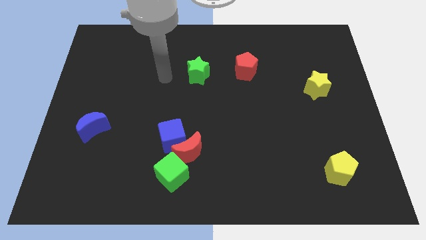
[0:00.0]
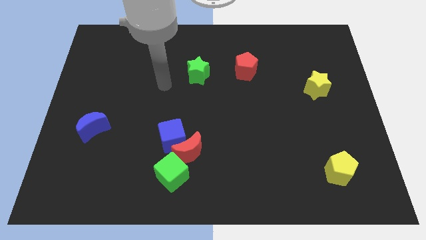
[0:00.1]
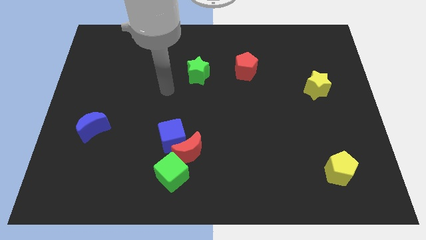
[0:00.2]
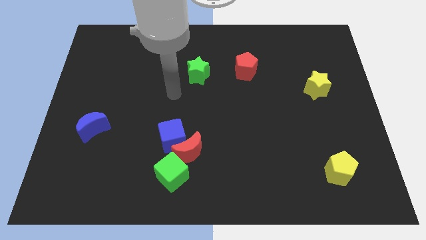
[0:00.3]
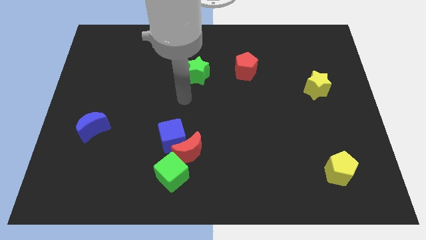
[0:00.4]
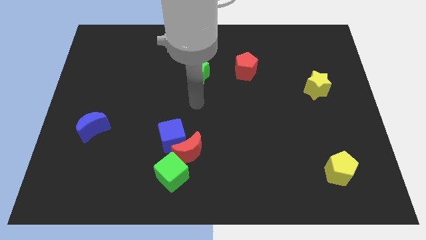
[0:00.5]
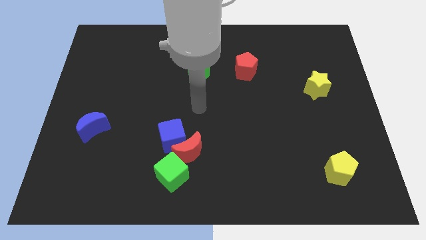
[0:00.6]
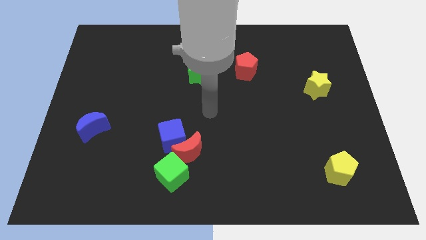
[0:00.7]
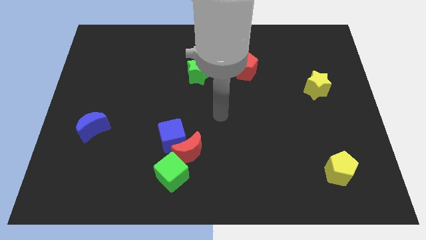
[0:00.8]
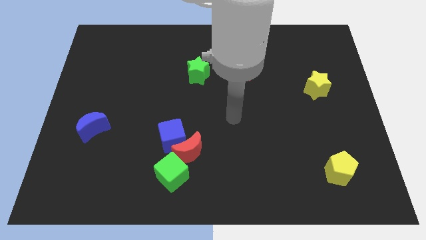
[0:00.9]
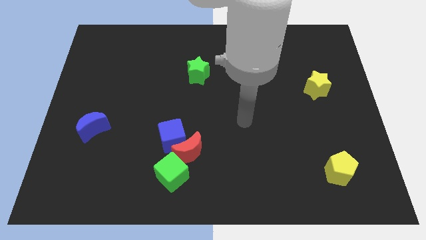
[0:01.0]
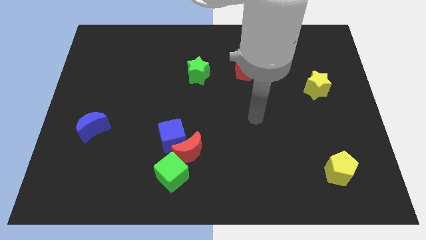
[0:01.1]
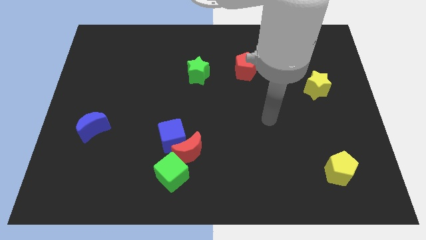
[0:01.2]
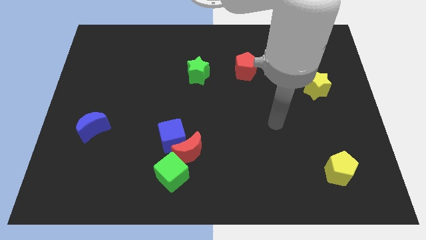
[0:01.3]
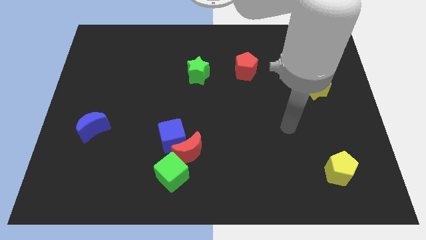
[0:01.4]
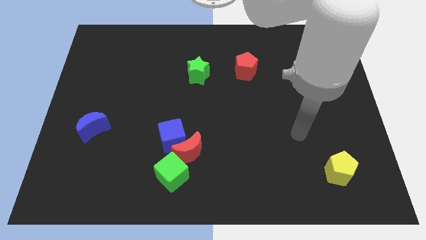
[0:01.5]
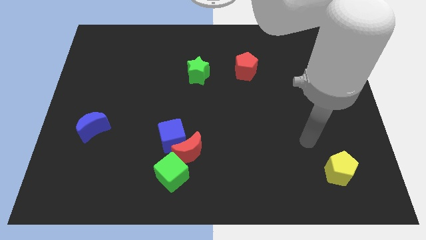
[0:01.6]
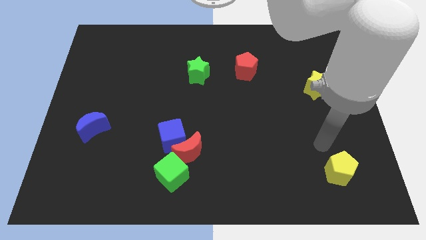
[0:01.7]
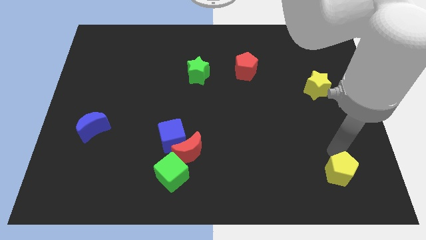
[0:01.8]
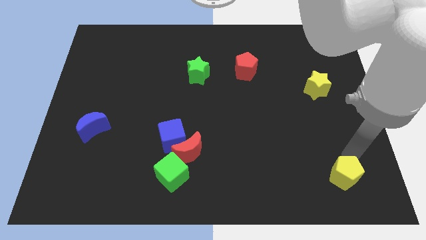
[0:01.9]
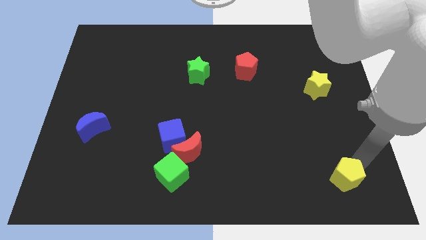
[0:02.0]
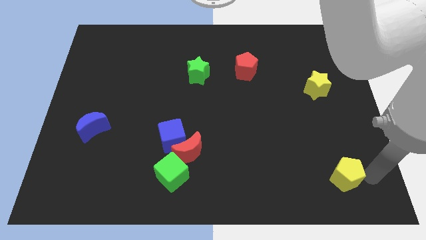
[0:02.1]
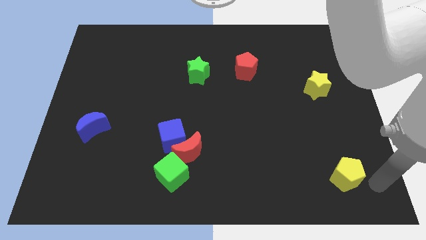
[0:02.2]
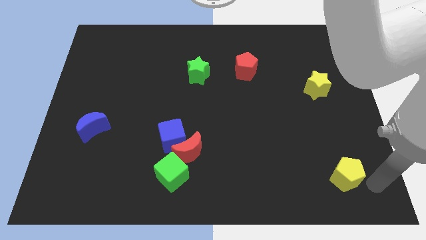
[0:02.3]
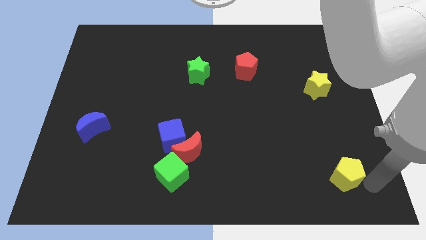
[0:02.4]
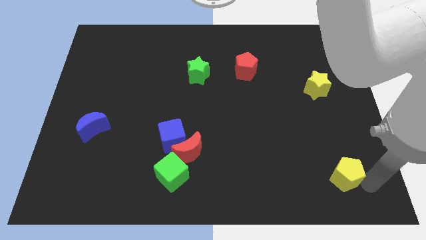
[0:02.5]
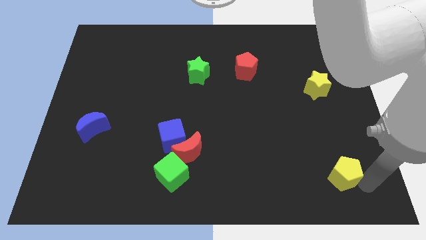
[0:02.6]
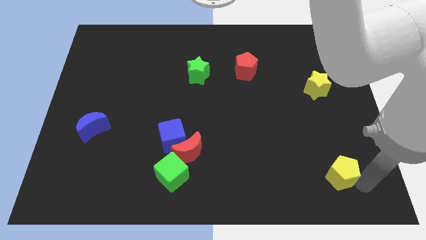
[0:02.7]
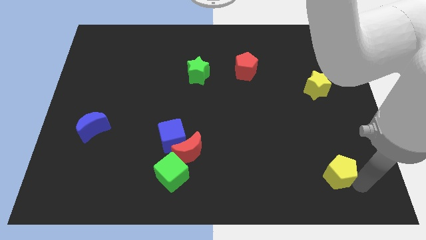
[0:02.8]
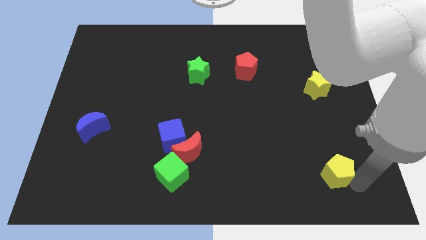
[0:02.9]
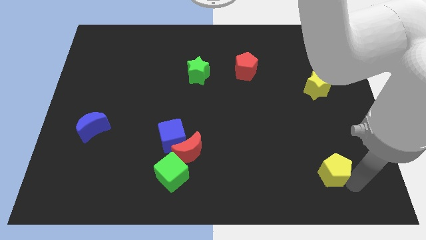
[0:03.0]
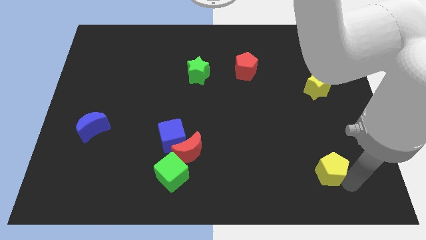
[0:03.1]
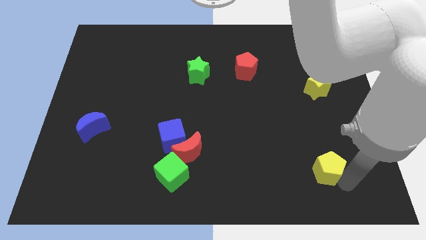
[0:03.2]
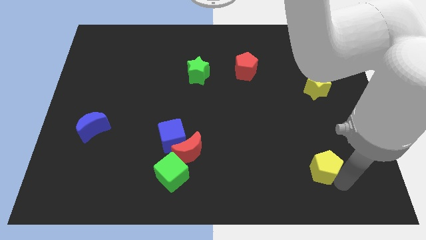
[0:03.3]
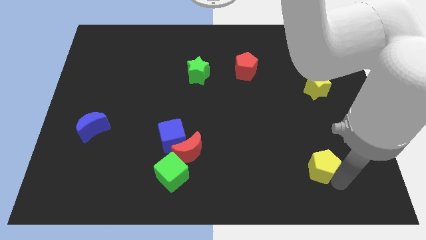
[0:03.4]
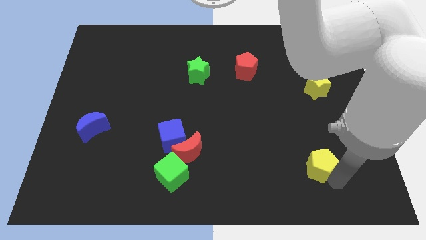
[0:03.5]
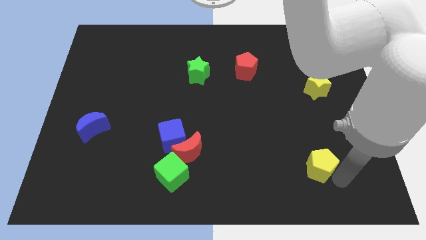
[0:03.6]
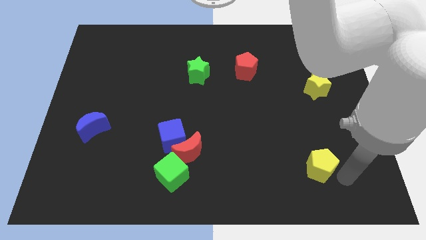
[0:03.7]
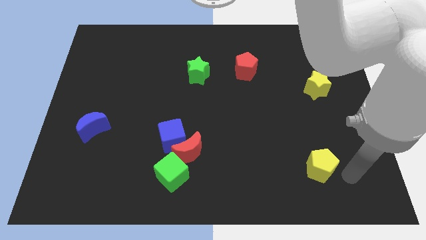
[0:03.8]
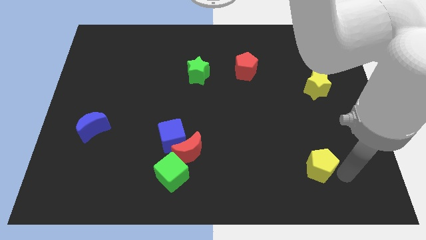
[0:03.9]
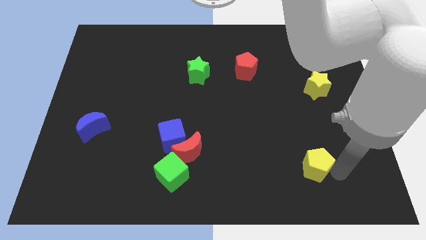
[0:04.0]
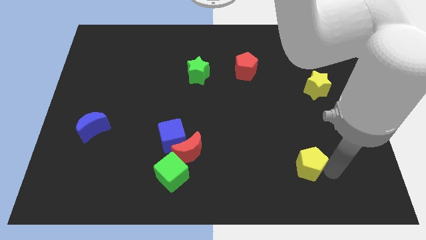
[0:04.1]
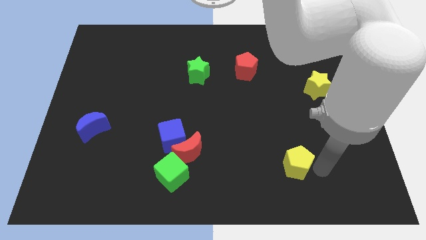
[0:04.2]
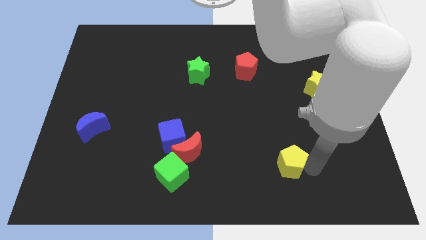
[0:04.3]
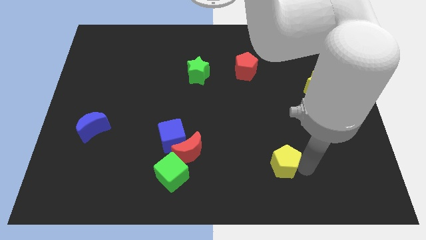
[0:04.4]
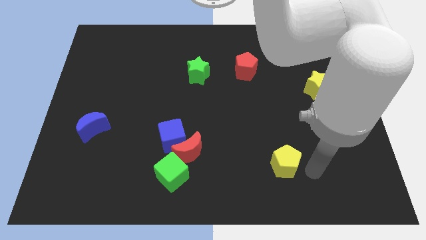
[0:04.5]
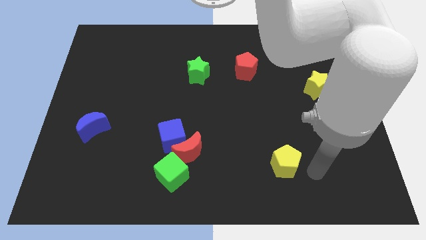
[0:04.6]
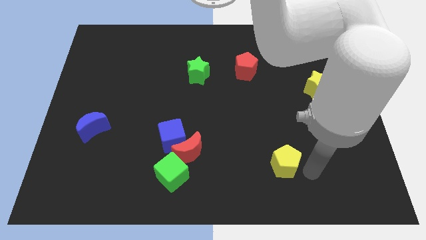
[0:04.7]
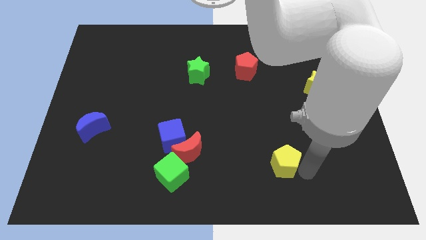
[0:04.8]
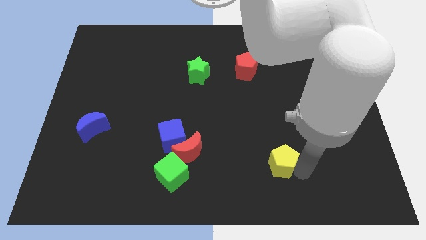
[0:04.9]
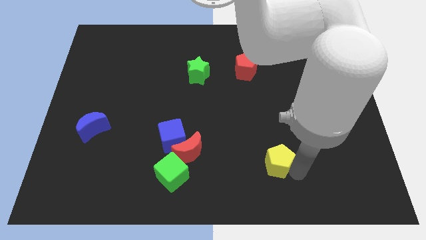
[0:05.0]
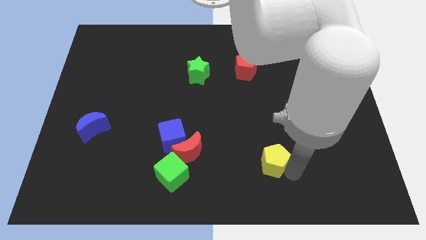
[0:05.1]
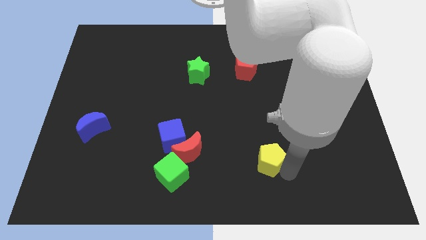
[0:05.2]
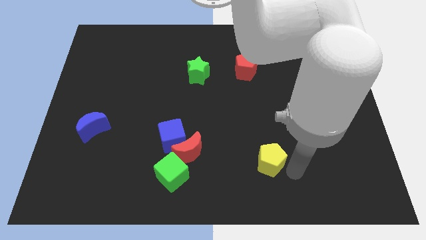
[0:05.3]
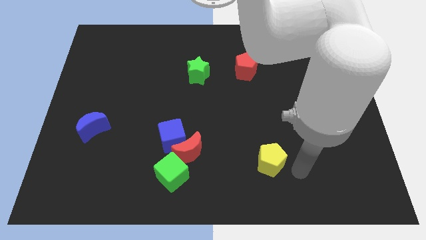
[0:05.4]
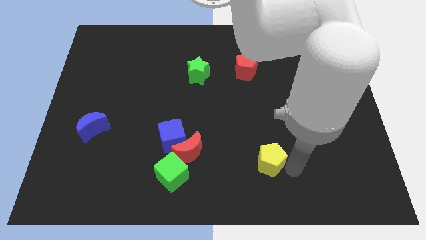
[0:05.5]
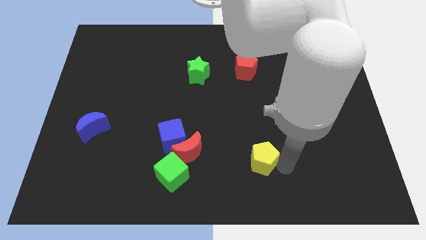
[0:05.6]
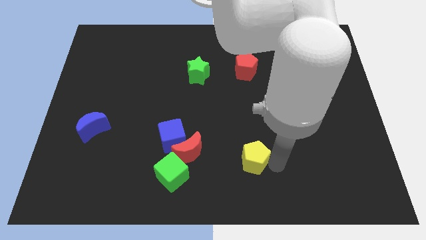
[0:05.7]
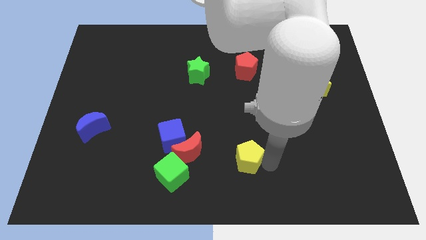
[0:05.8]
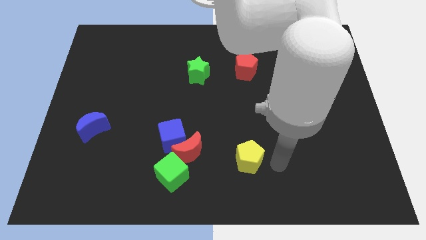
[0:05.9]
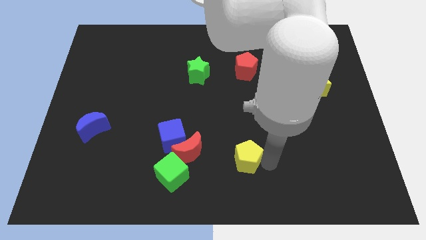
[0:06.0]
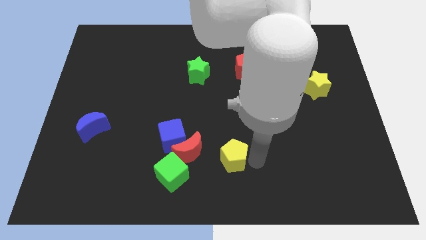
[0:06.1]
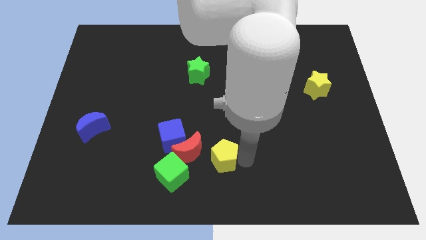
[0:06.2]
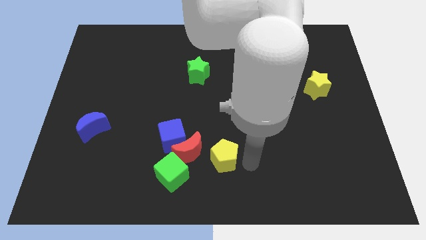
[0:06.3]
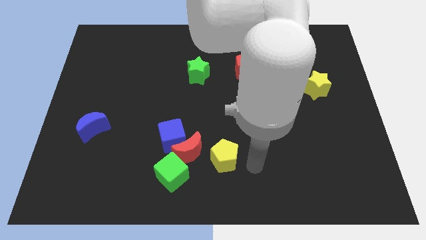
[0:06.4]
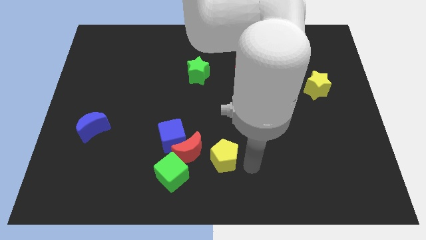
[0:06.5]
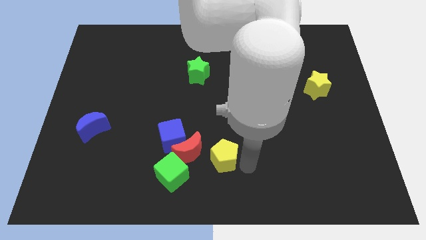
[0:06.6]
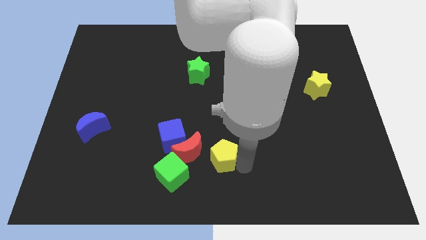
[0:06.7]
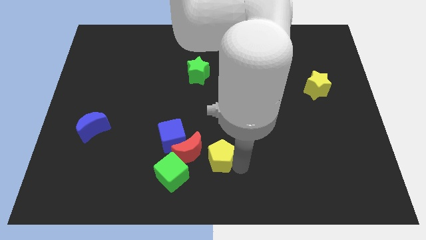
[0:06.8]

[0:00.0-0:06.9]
move the yellow pentagon diagonally up and to the right of the green cube

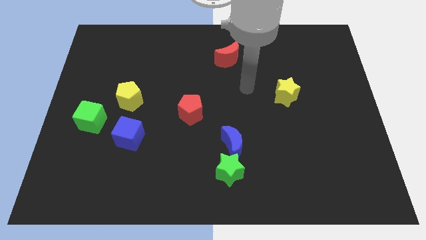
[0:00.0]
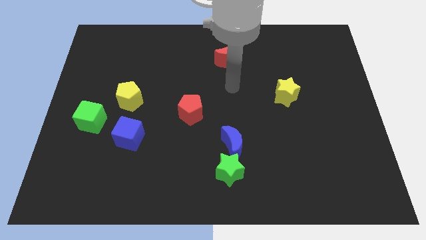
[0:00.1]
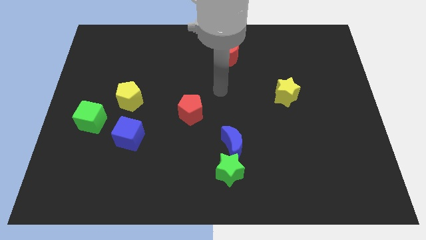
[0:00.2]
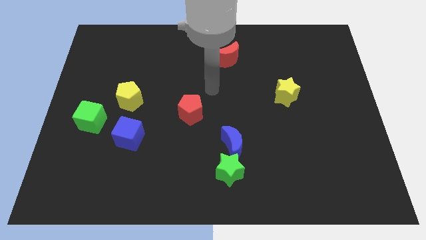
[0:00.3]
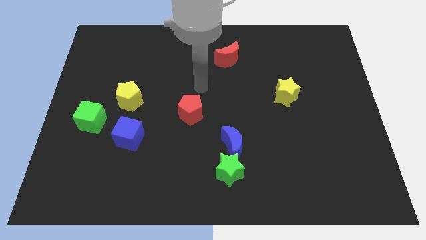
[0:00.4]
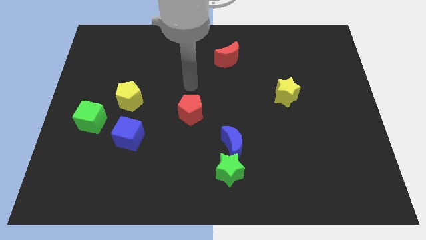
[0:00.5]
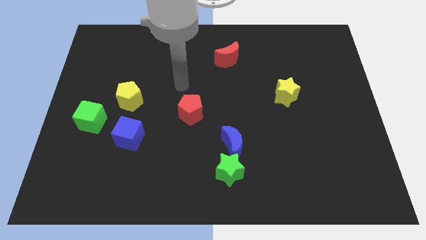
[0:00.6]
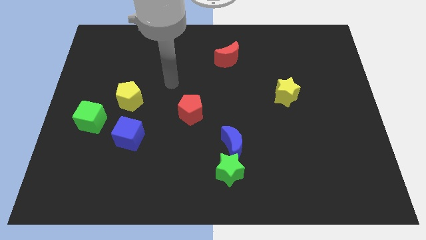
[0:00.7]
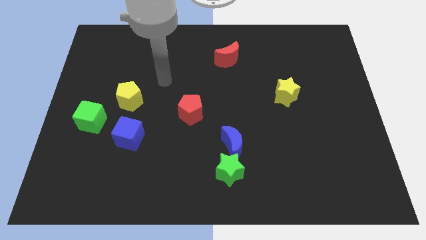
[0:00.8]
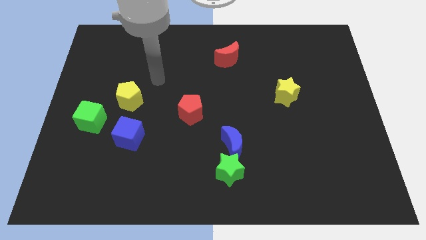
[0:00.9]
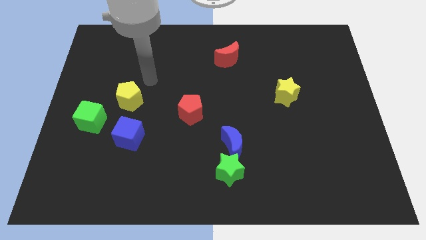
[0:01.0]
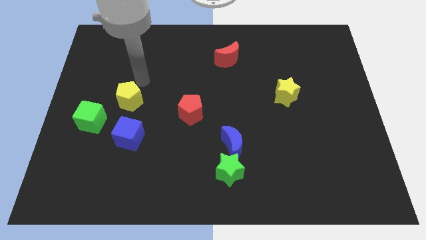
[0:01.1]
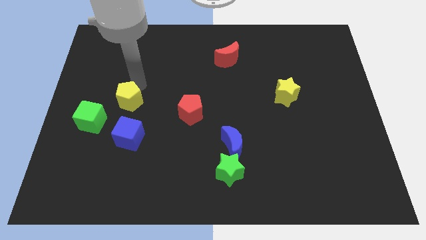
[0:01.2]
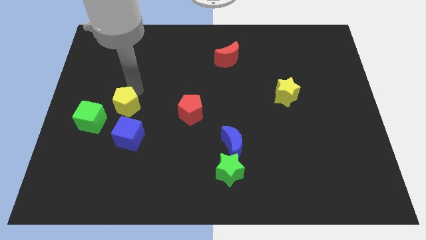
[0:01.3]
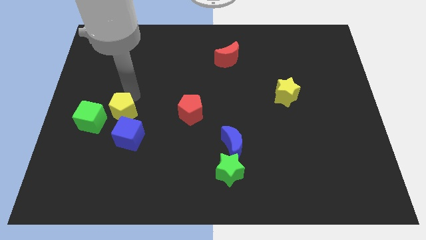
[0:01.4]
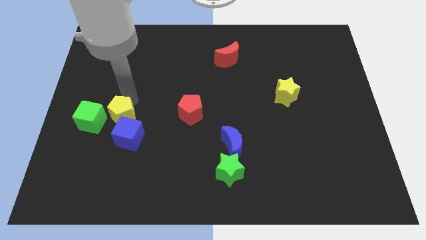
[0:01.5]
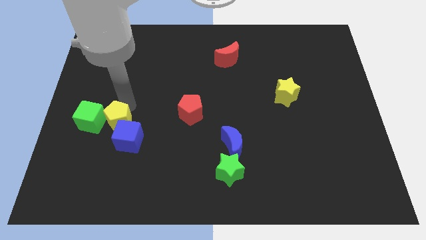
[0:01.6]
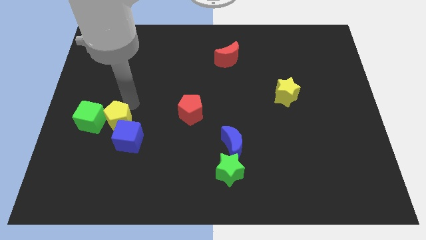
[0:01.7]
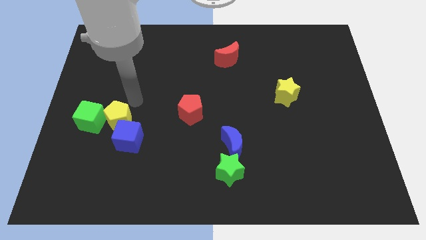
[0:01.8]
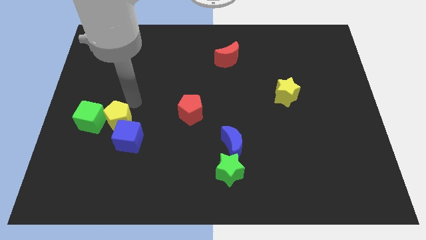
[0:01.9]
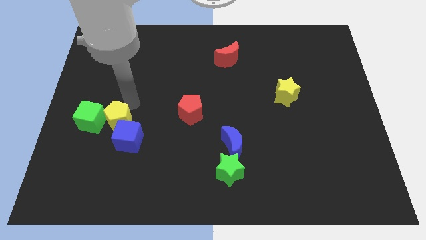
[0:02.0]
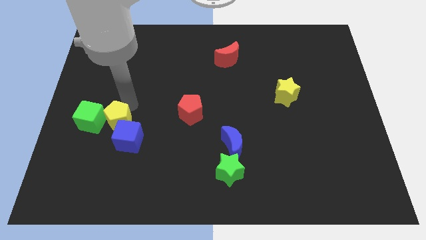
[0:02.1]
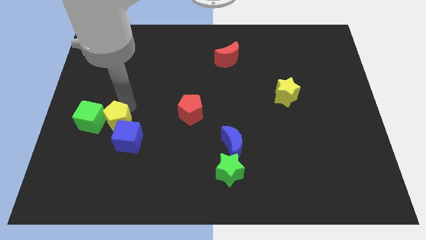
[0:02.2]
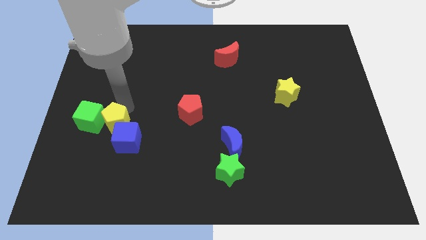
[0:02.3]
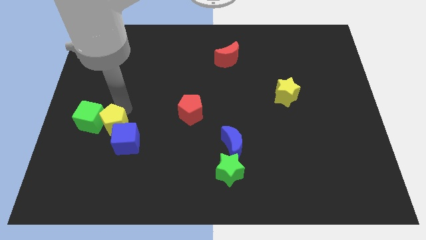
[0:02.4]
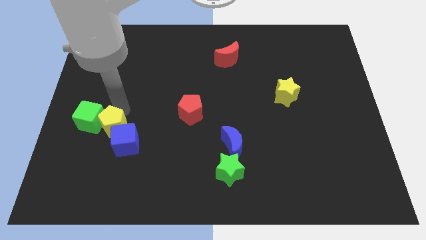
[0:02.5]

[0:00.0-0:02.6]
slide the yellow pentagon just left of the blue cube
